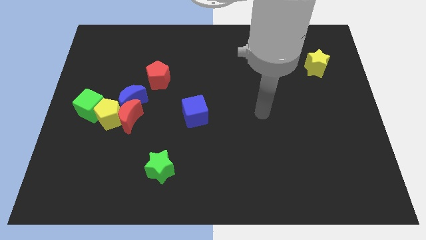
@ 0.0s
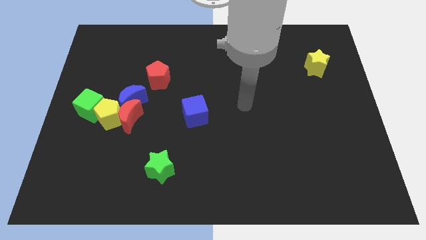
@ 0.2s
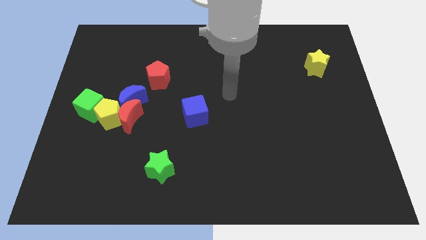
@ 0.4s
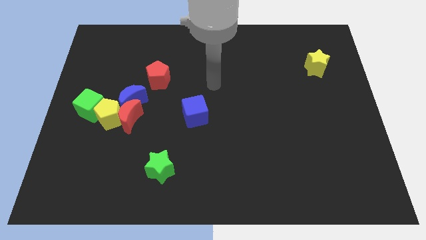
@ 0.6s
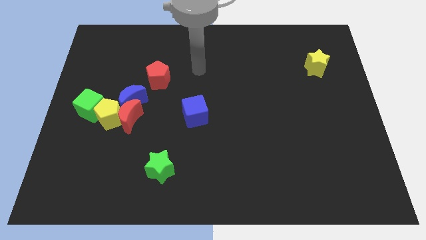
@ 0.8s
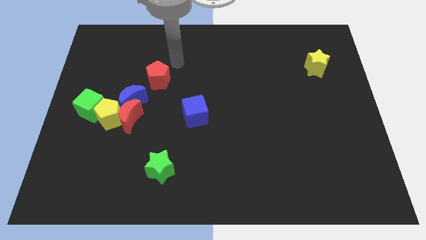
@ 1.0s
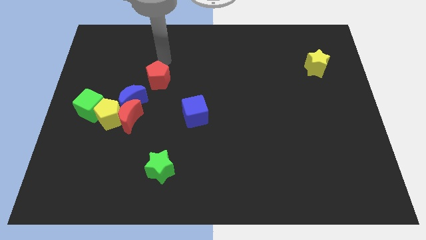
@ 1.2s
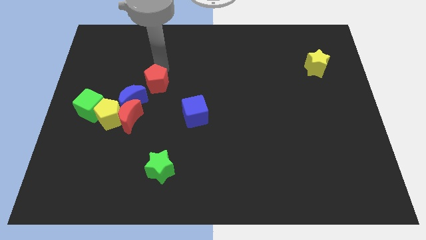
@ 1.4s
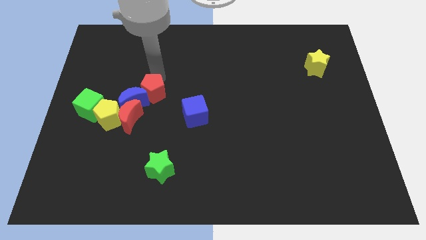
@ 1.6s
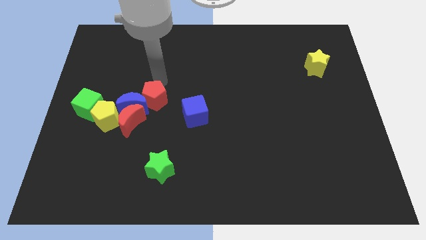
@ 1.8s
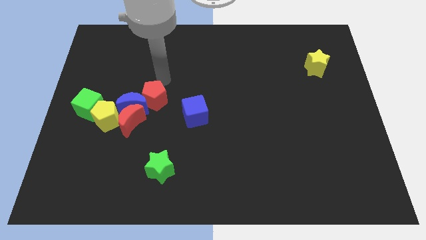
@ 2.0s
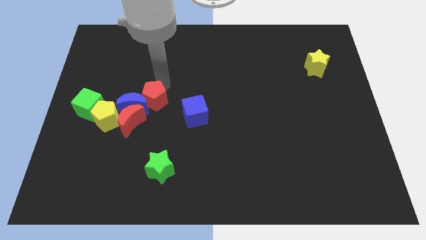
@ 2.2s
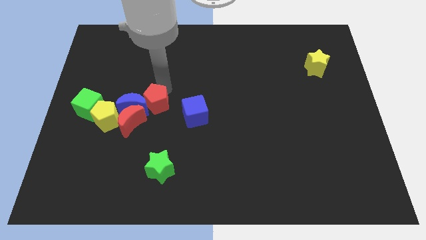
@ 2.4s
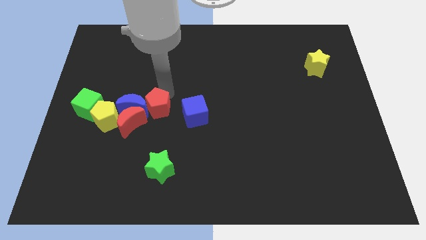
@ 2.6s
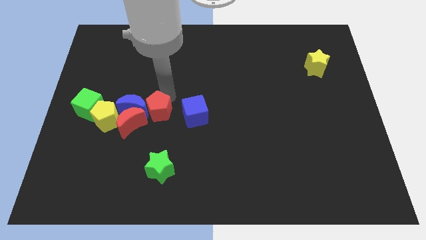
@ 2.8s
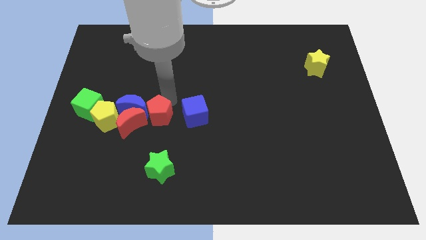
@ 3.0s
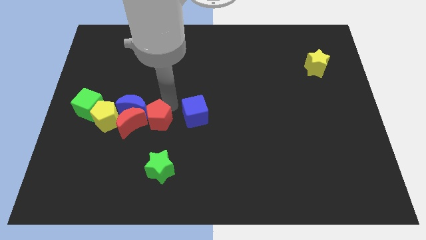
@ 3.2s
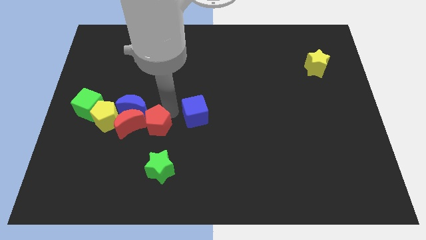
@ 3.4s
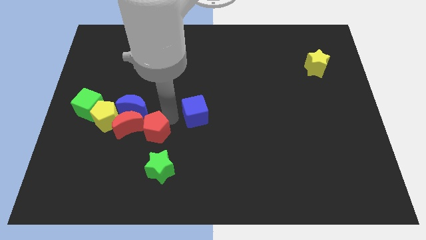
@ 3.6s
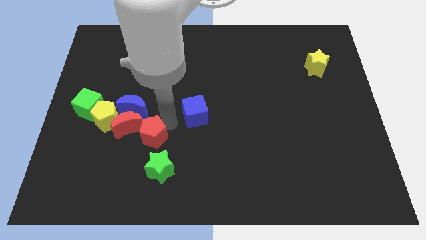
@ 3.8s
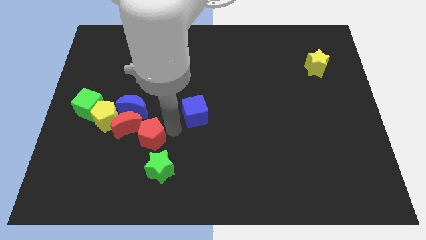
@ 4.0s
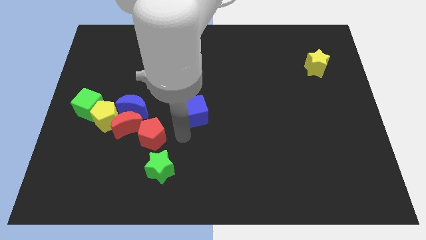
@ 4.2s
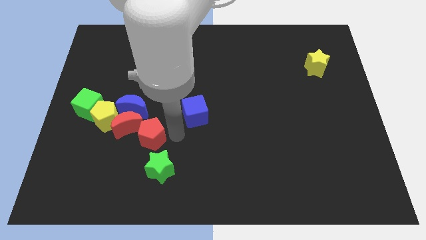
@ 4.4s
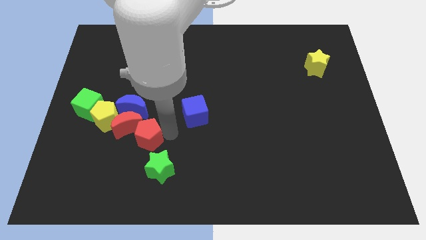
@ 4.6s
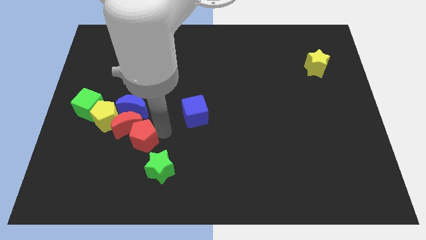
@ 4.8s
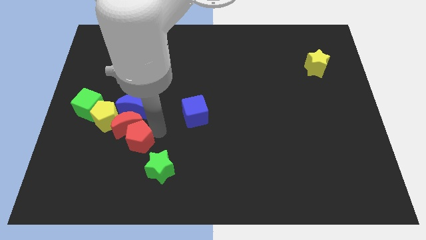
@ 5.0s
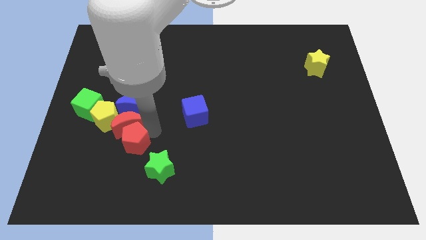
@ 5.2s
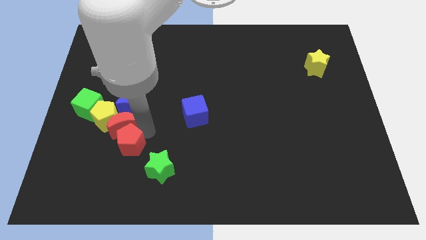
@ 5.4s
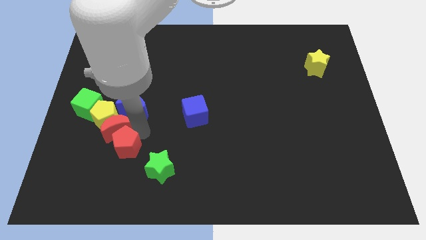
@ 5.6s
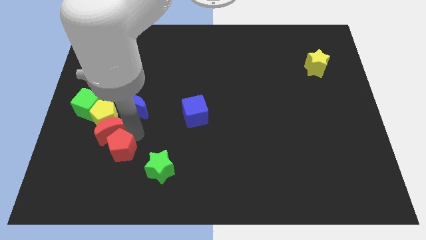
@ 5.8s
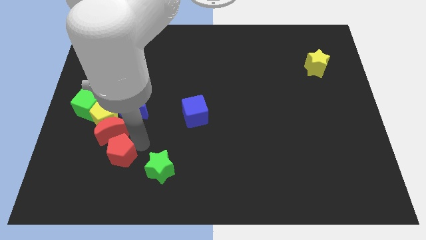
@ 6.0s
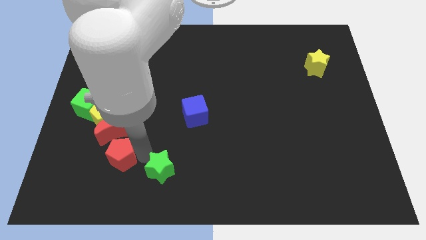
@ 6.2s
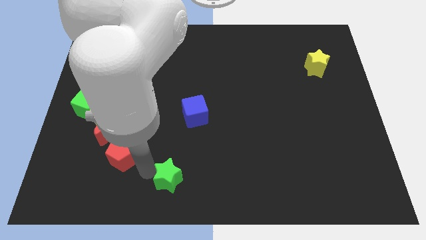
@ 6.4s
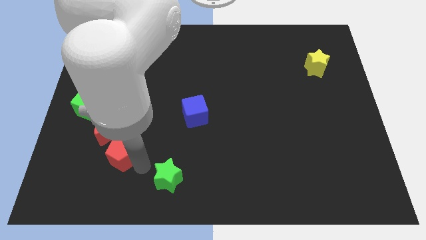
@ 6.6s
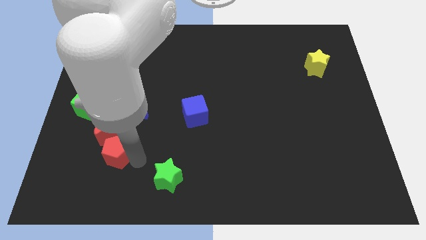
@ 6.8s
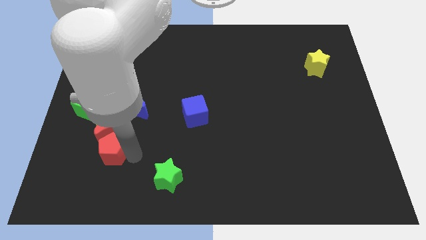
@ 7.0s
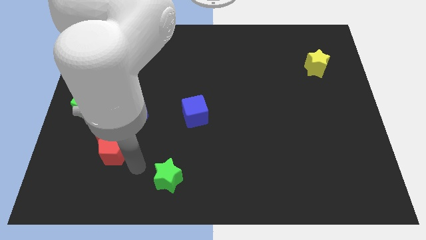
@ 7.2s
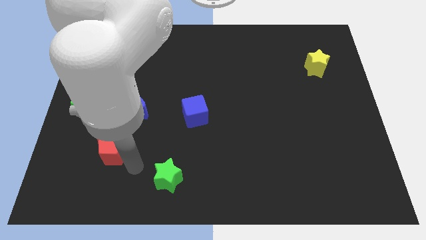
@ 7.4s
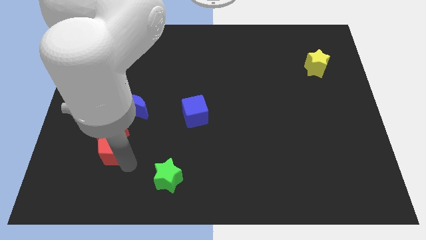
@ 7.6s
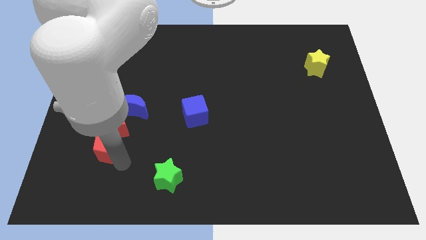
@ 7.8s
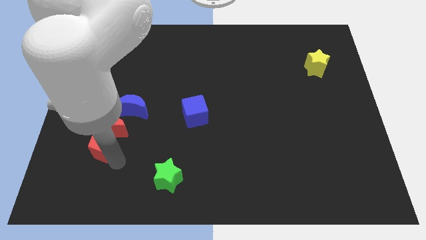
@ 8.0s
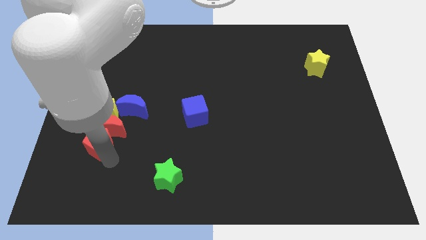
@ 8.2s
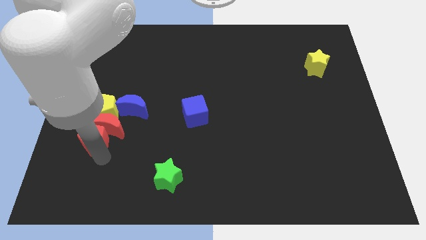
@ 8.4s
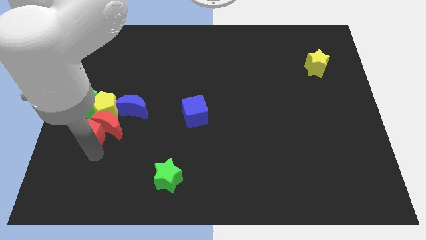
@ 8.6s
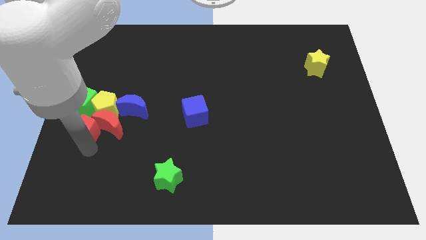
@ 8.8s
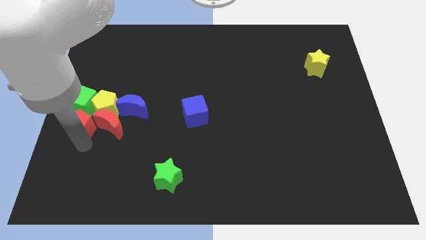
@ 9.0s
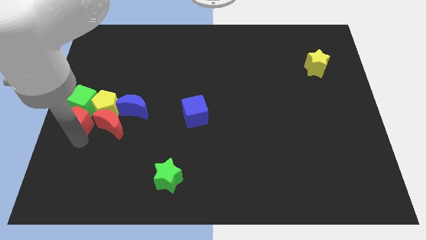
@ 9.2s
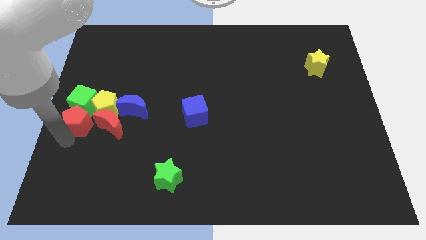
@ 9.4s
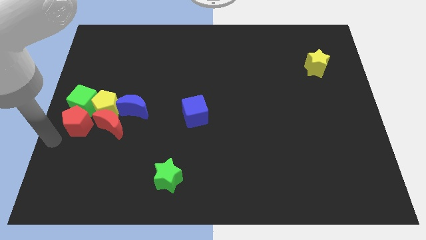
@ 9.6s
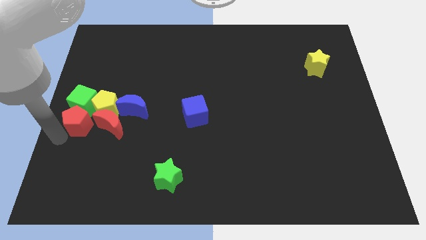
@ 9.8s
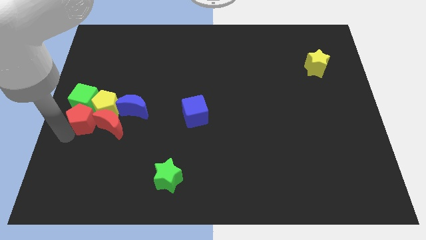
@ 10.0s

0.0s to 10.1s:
push the red pentagon close to the yellow pentagon

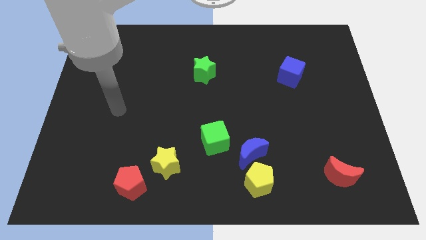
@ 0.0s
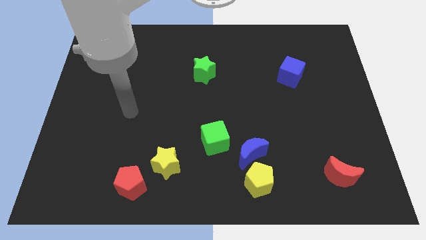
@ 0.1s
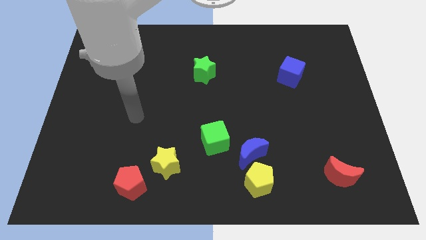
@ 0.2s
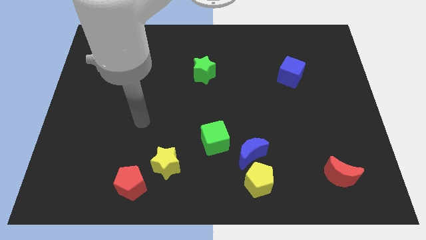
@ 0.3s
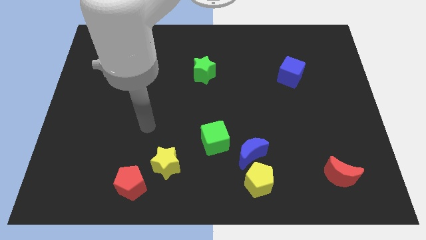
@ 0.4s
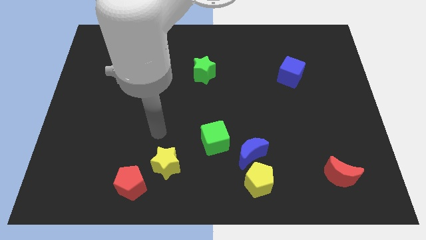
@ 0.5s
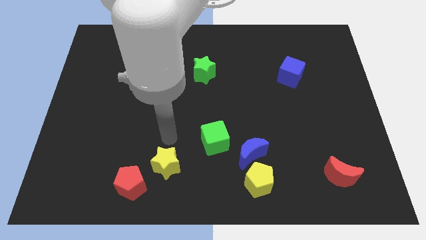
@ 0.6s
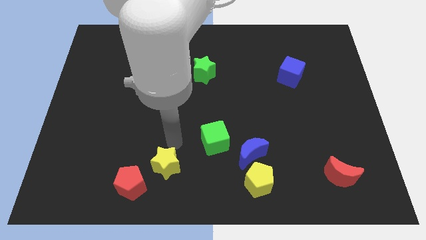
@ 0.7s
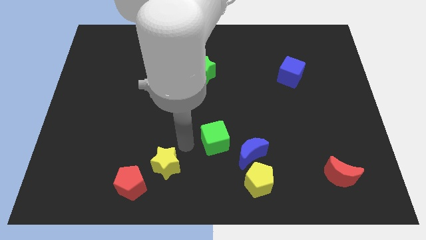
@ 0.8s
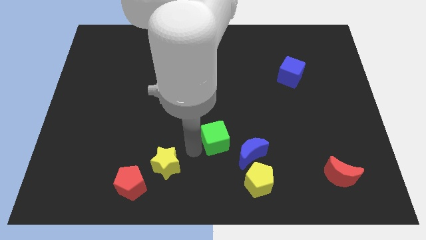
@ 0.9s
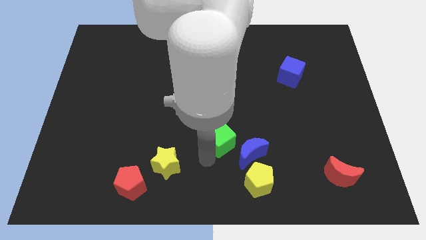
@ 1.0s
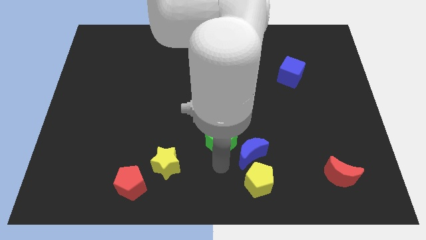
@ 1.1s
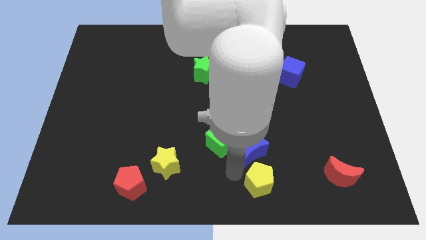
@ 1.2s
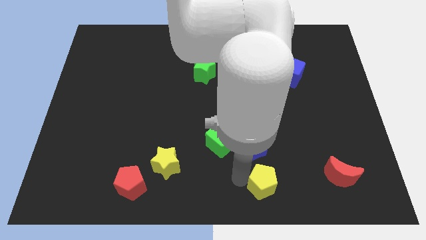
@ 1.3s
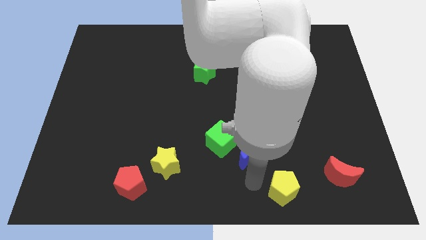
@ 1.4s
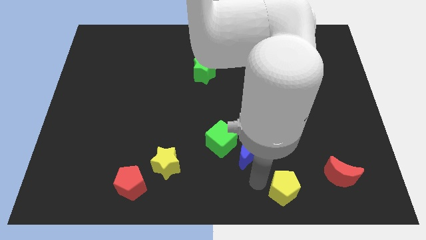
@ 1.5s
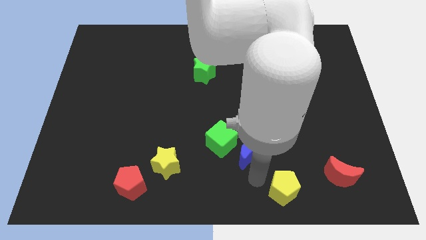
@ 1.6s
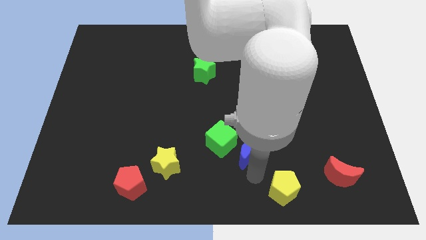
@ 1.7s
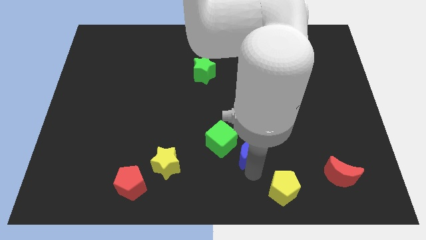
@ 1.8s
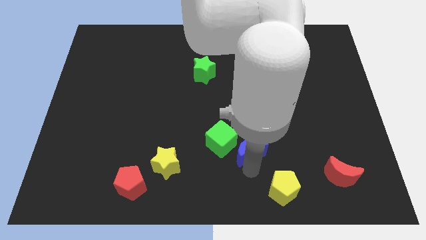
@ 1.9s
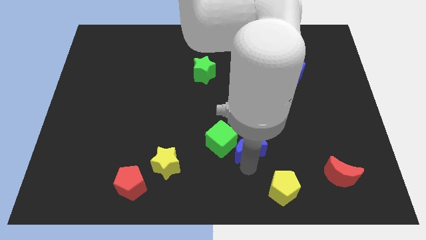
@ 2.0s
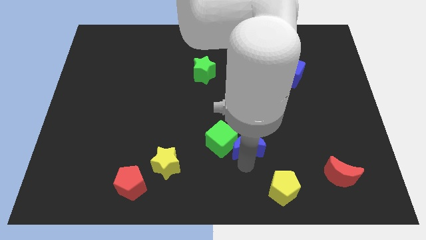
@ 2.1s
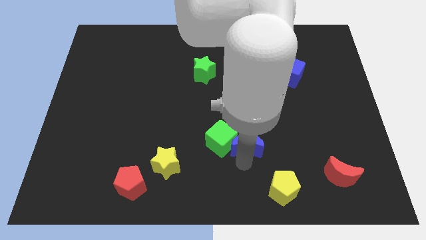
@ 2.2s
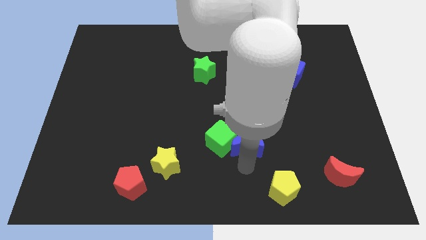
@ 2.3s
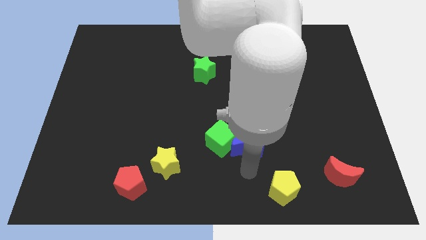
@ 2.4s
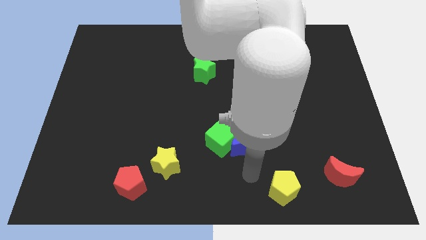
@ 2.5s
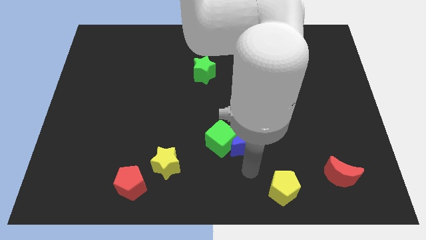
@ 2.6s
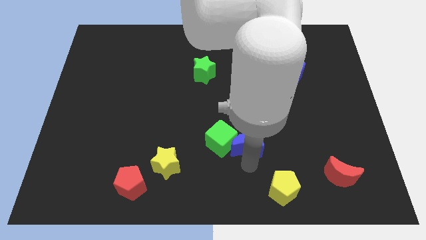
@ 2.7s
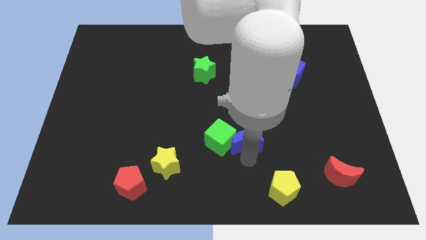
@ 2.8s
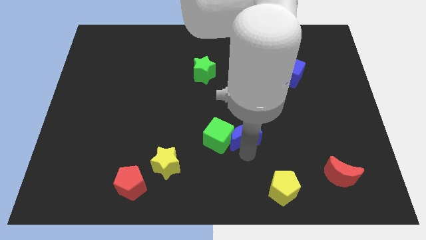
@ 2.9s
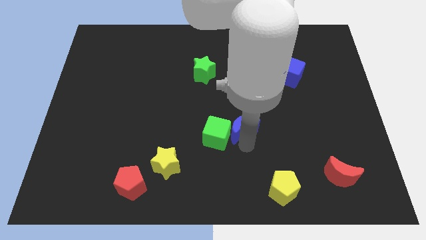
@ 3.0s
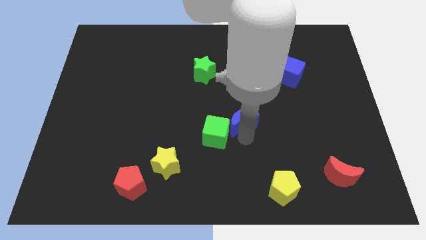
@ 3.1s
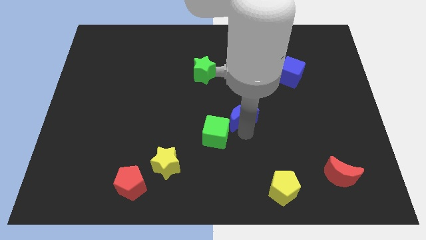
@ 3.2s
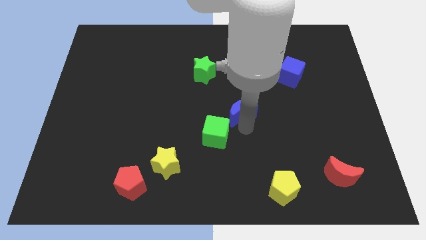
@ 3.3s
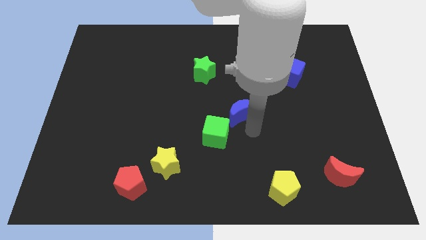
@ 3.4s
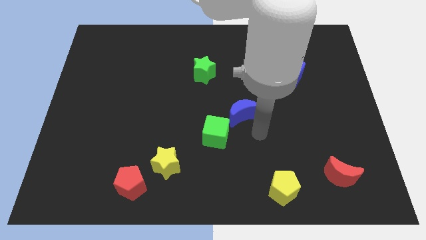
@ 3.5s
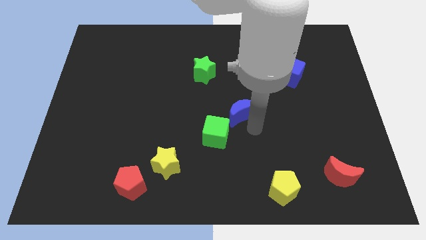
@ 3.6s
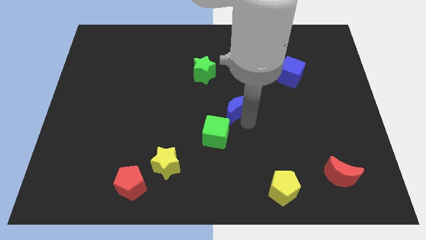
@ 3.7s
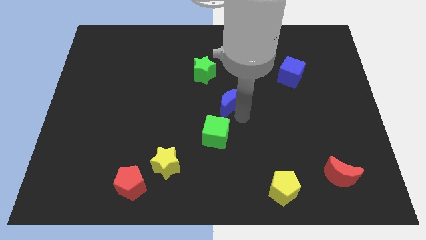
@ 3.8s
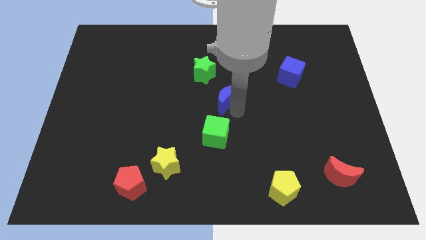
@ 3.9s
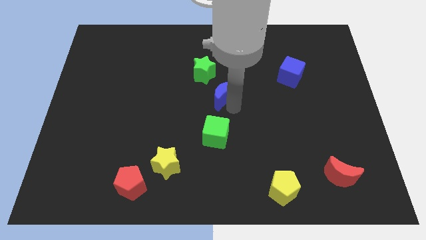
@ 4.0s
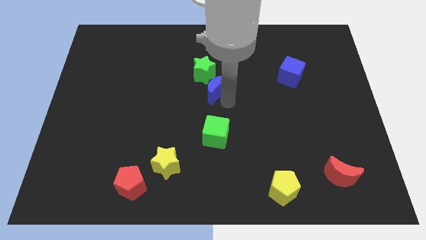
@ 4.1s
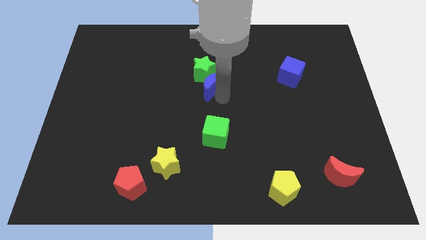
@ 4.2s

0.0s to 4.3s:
push the blue moon to the green star
